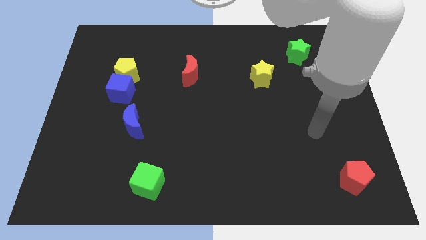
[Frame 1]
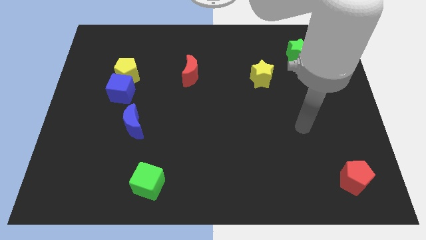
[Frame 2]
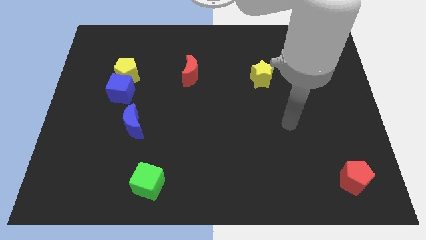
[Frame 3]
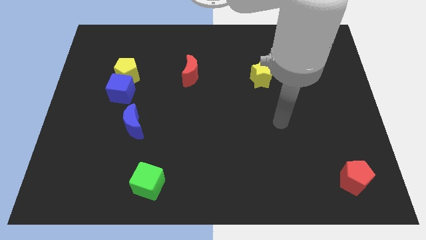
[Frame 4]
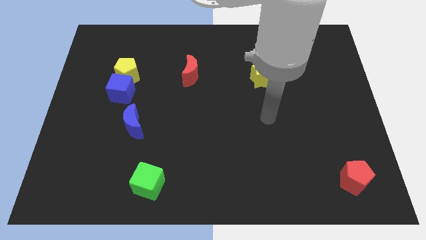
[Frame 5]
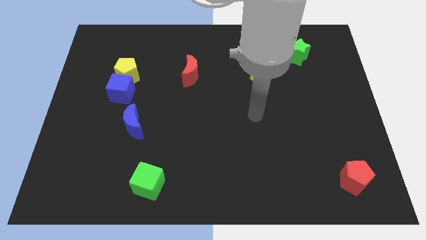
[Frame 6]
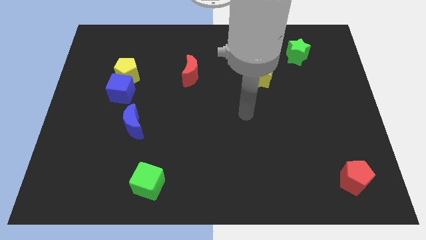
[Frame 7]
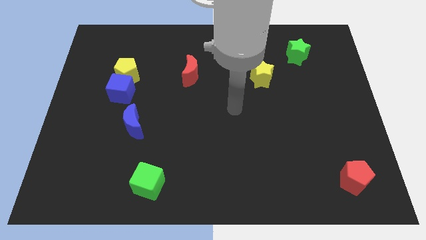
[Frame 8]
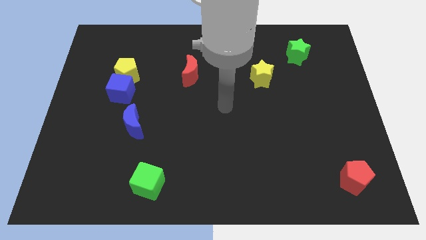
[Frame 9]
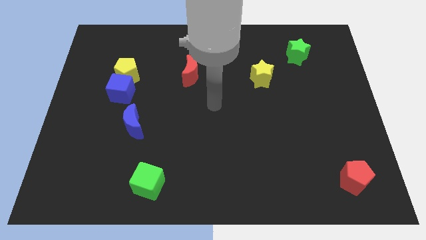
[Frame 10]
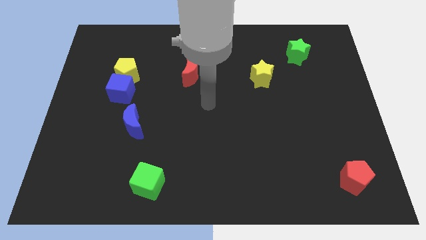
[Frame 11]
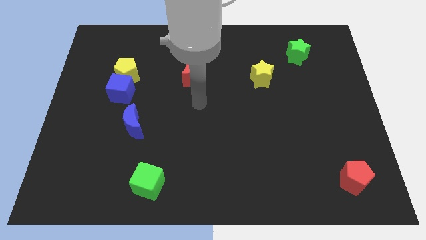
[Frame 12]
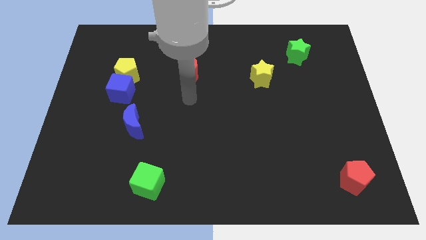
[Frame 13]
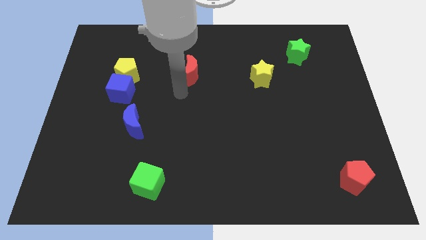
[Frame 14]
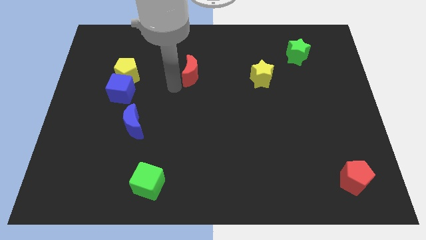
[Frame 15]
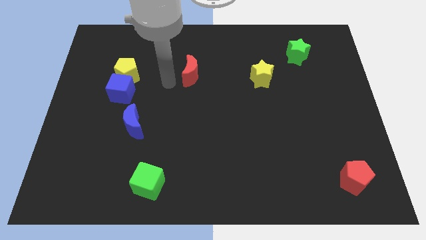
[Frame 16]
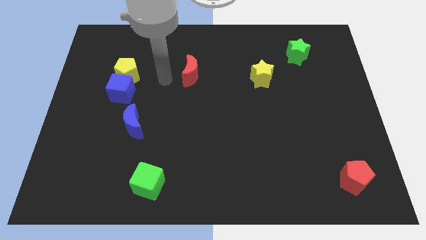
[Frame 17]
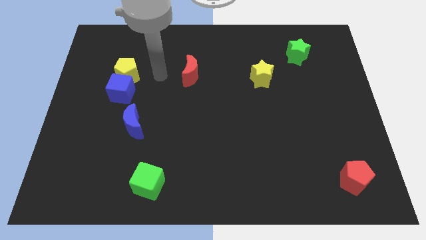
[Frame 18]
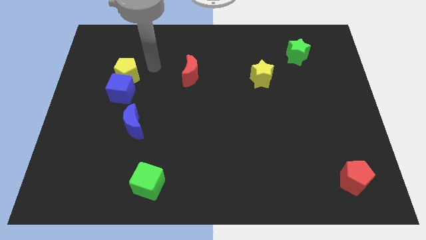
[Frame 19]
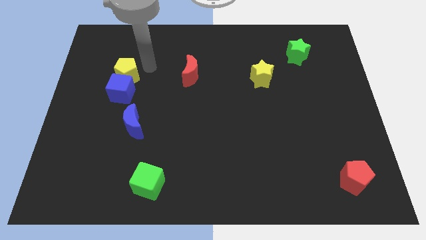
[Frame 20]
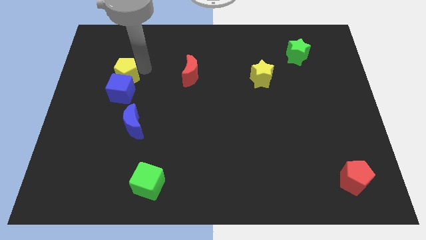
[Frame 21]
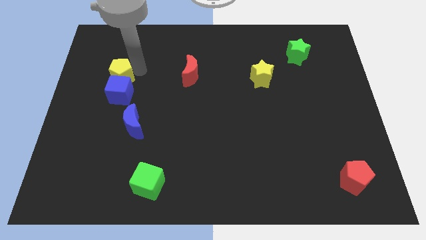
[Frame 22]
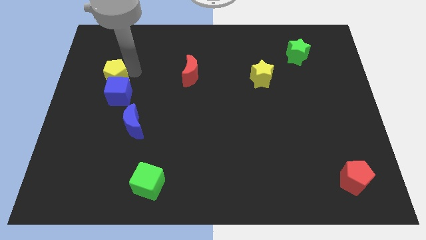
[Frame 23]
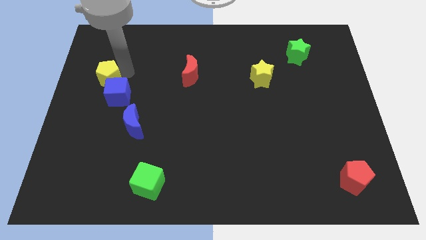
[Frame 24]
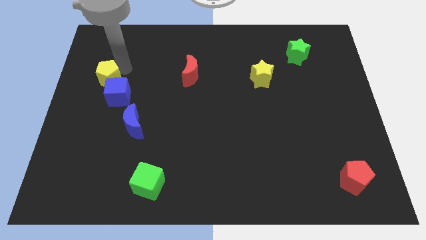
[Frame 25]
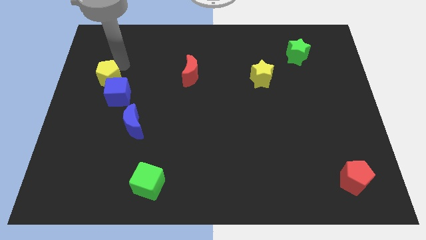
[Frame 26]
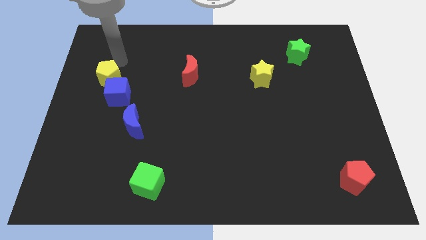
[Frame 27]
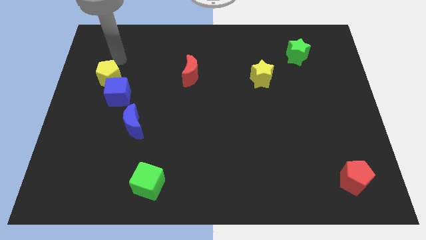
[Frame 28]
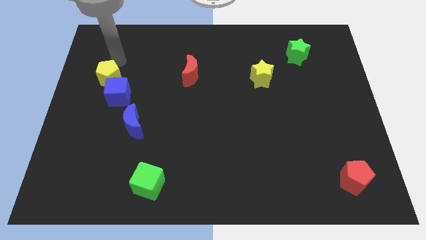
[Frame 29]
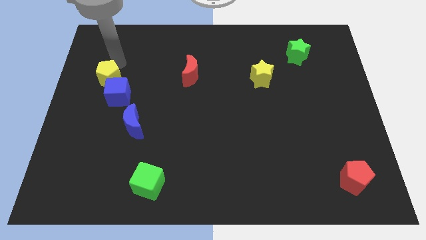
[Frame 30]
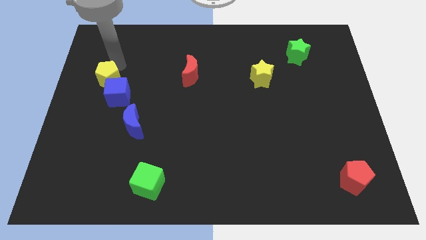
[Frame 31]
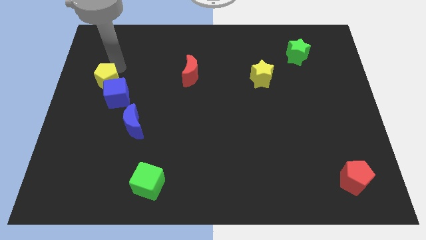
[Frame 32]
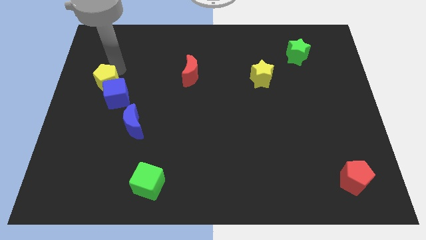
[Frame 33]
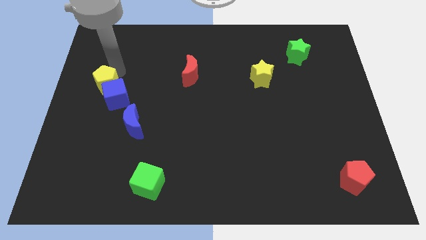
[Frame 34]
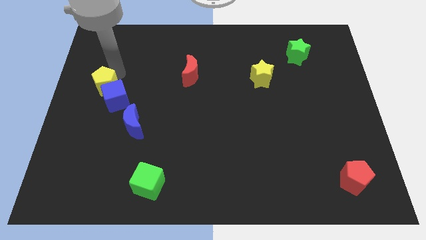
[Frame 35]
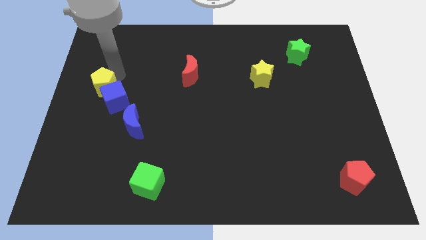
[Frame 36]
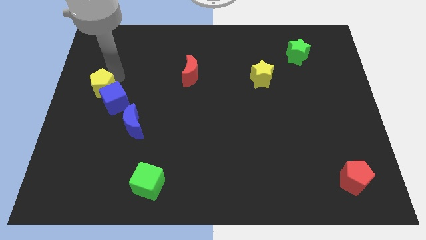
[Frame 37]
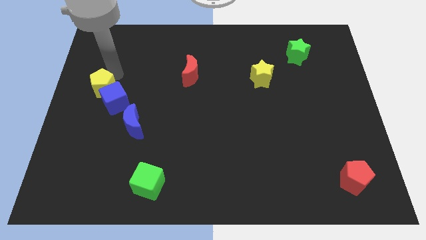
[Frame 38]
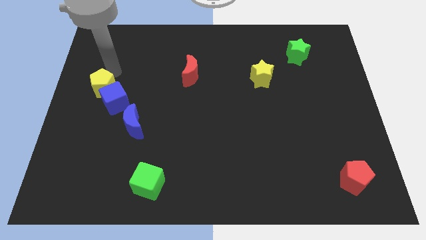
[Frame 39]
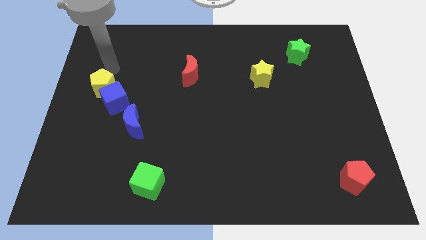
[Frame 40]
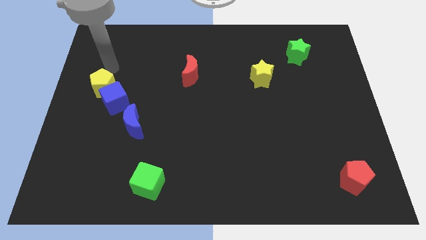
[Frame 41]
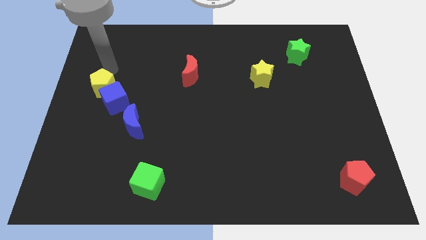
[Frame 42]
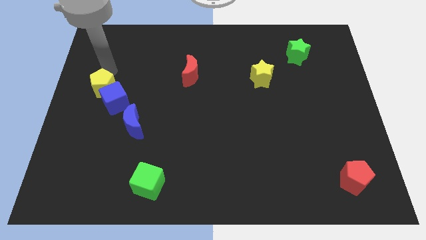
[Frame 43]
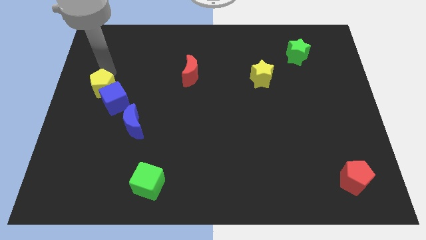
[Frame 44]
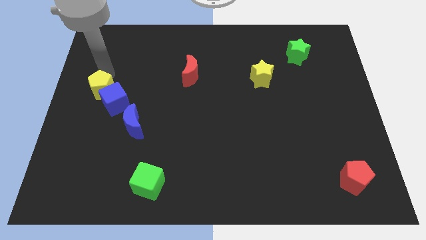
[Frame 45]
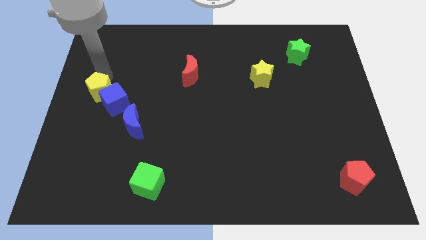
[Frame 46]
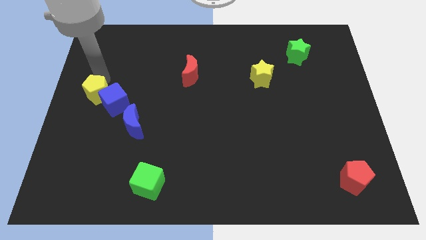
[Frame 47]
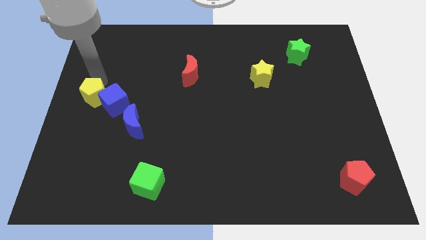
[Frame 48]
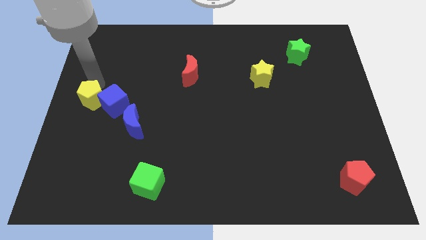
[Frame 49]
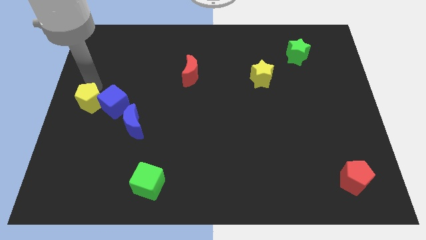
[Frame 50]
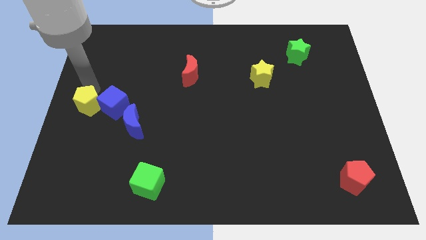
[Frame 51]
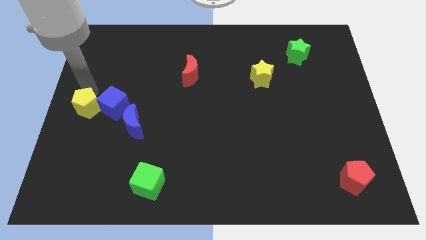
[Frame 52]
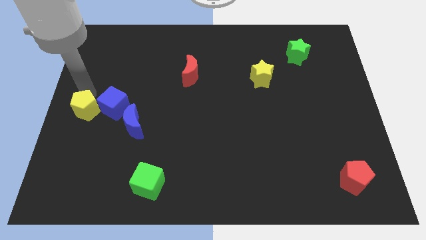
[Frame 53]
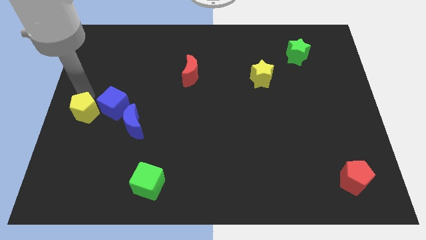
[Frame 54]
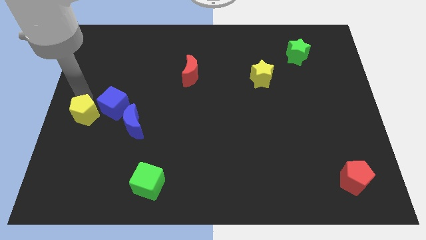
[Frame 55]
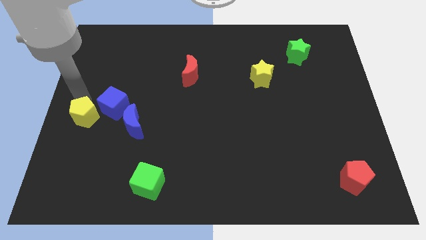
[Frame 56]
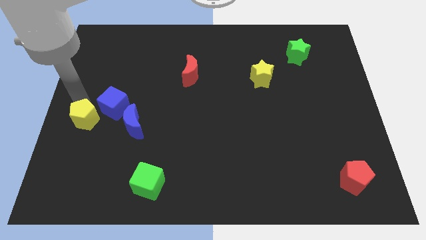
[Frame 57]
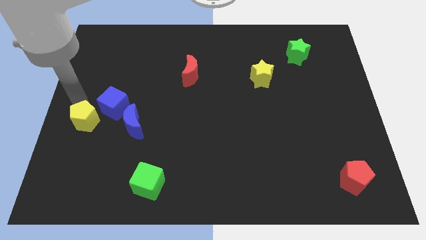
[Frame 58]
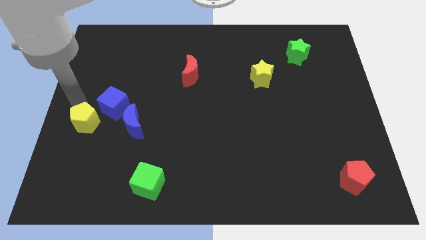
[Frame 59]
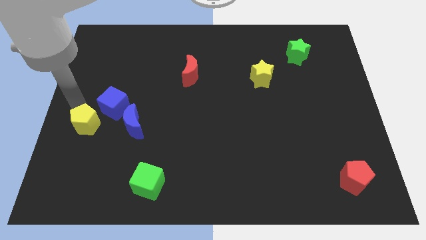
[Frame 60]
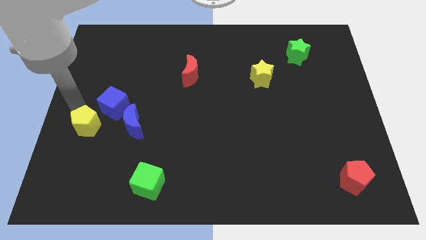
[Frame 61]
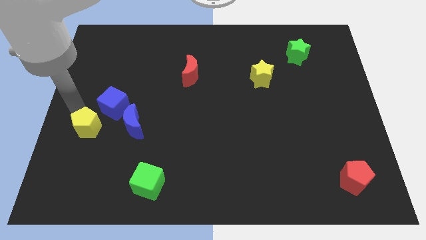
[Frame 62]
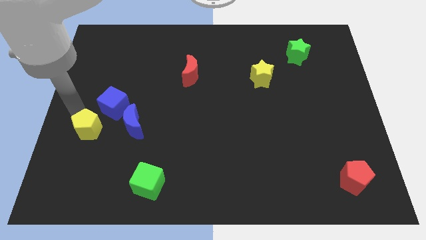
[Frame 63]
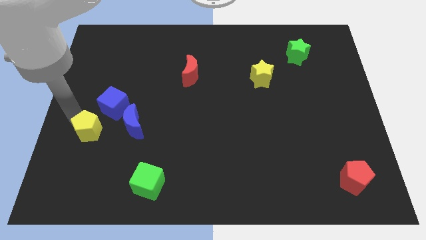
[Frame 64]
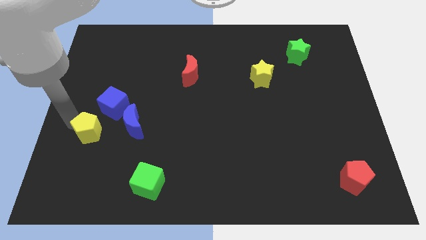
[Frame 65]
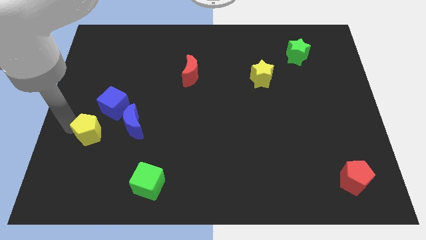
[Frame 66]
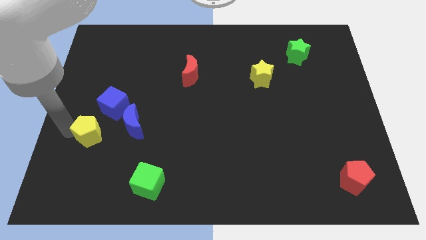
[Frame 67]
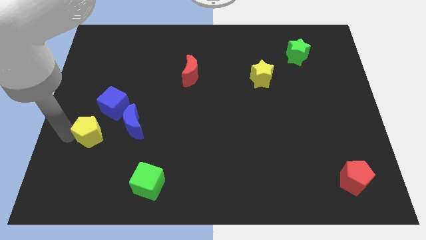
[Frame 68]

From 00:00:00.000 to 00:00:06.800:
move the yellow pentagon diagonally down and to the left of the blue moon

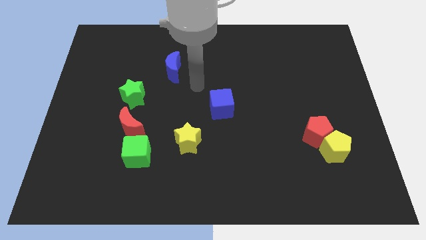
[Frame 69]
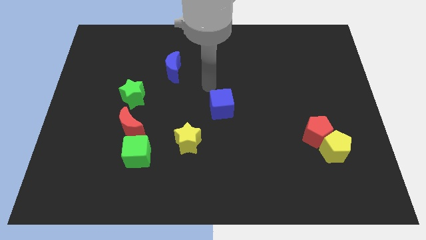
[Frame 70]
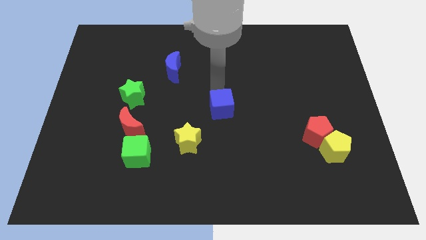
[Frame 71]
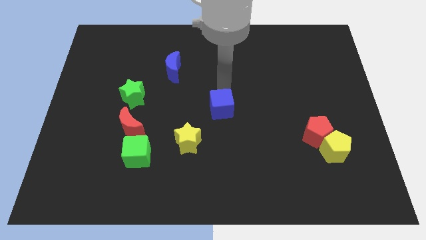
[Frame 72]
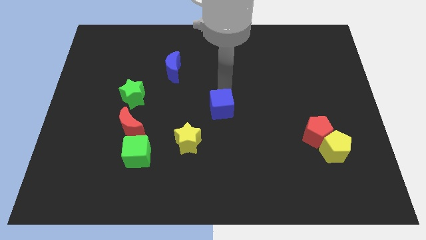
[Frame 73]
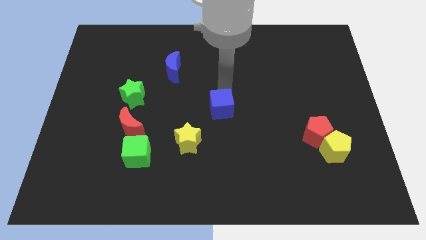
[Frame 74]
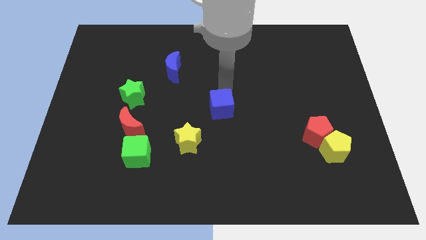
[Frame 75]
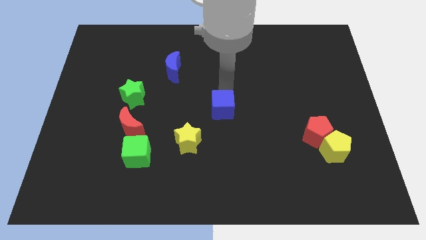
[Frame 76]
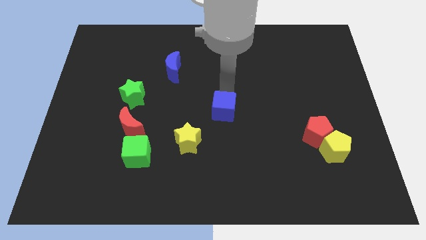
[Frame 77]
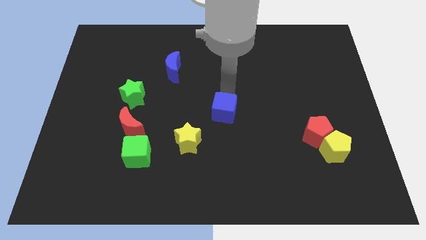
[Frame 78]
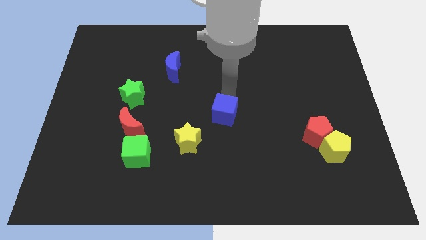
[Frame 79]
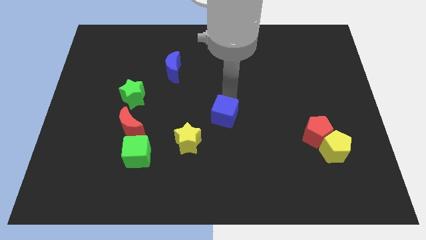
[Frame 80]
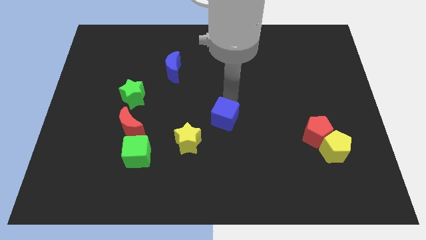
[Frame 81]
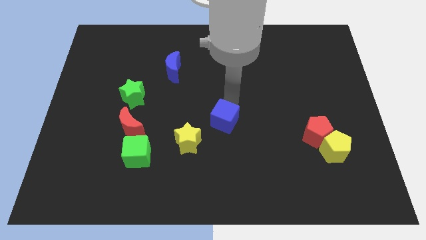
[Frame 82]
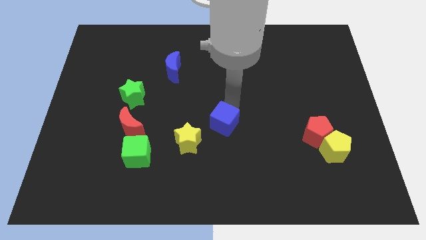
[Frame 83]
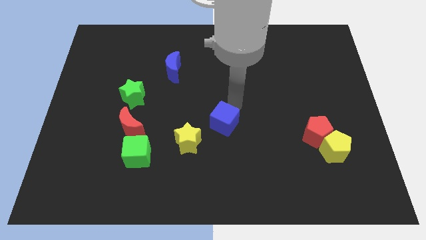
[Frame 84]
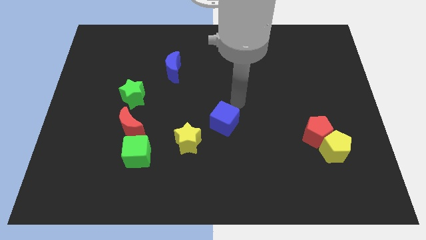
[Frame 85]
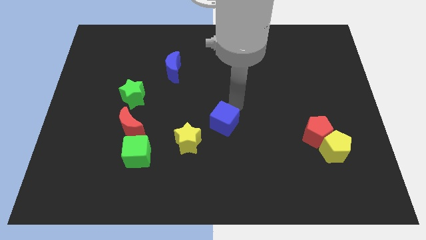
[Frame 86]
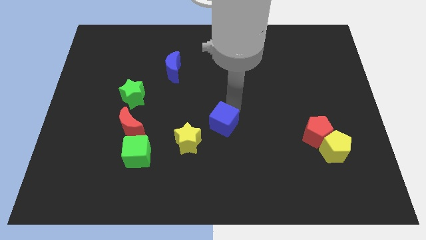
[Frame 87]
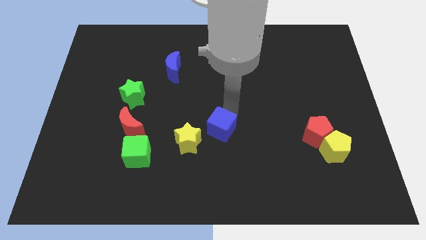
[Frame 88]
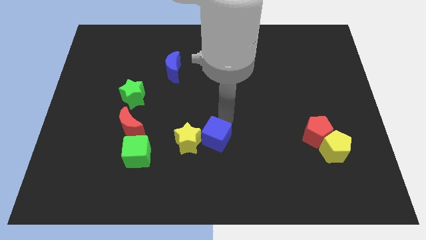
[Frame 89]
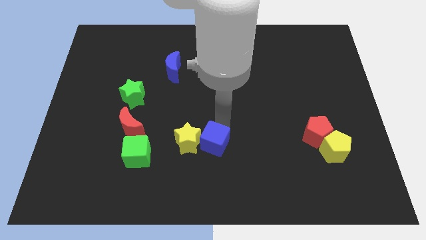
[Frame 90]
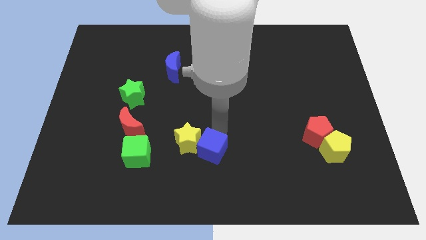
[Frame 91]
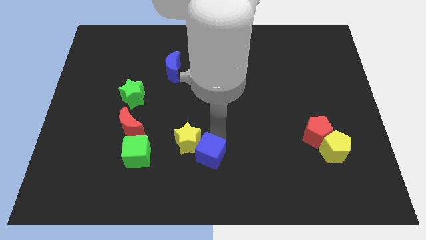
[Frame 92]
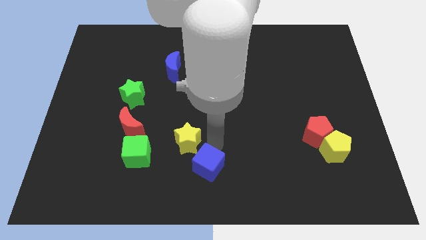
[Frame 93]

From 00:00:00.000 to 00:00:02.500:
push the blue cube below the yellow star
